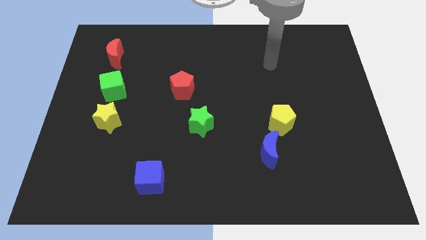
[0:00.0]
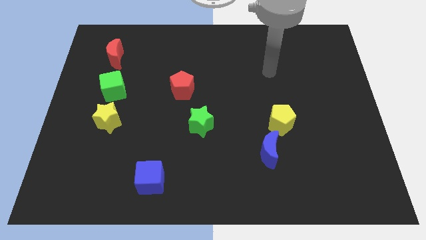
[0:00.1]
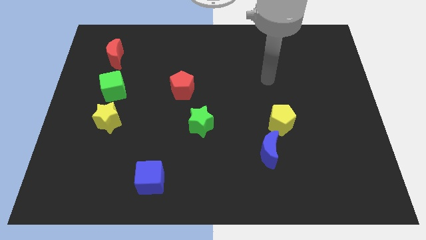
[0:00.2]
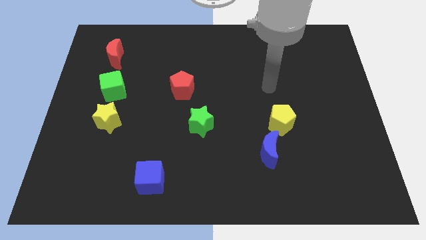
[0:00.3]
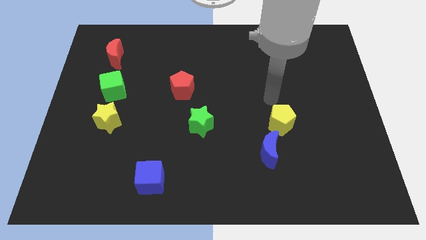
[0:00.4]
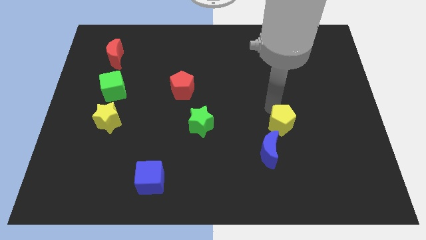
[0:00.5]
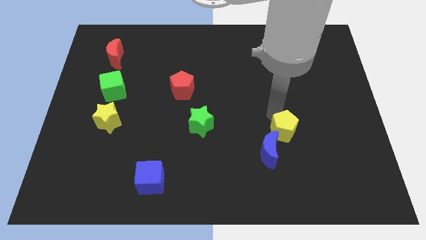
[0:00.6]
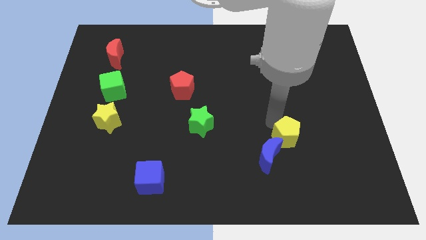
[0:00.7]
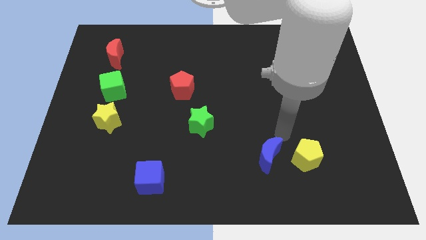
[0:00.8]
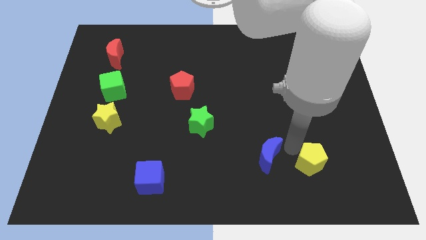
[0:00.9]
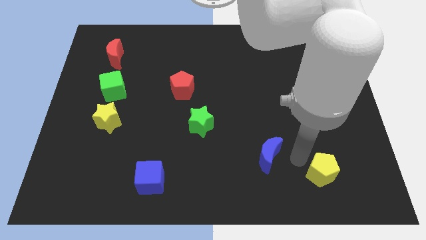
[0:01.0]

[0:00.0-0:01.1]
pull the blue moon apart from the yellow pentagon

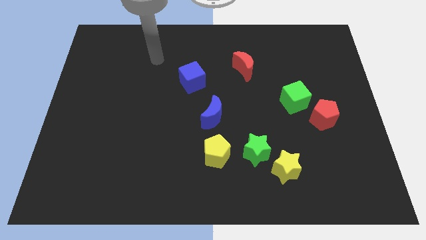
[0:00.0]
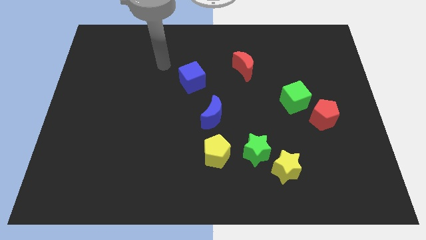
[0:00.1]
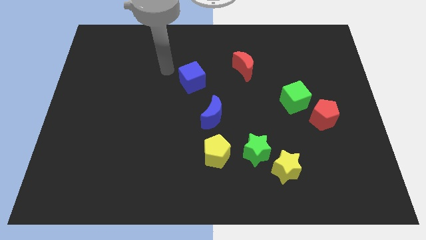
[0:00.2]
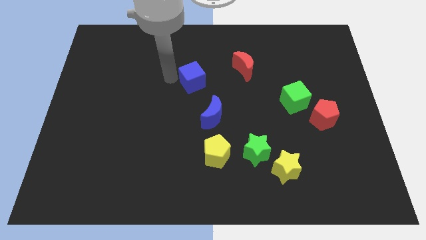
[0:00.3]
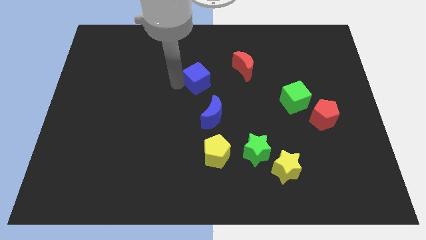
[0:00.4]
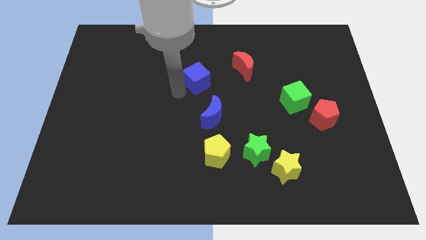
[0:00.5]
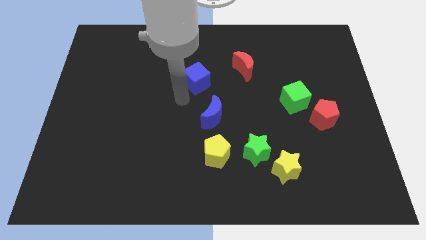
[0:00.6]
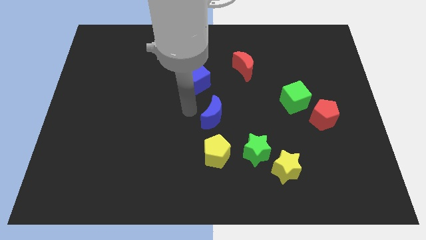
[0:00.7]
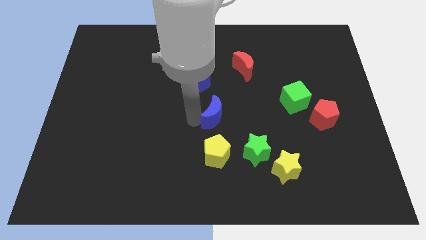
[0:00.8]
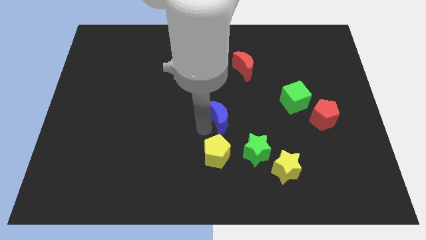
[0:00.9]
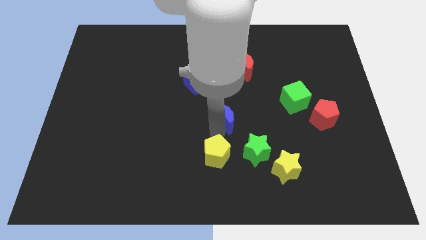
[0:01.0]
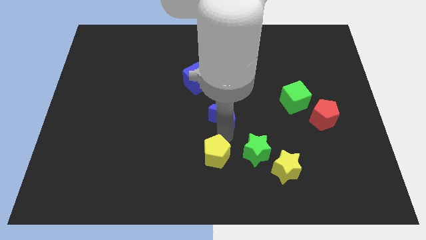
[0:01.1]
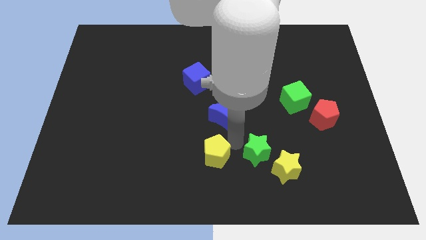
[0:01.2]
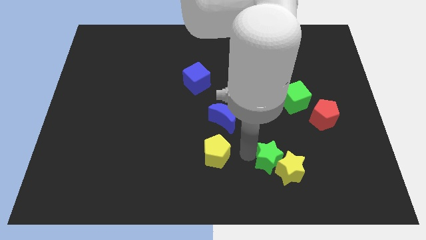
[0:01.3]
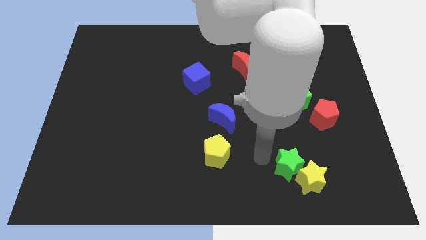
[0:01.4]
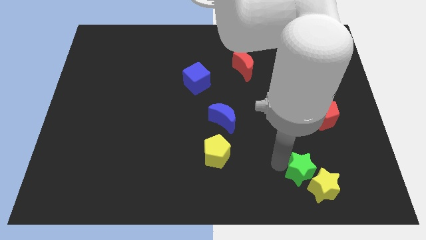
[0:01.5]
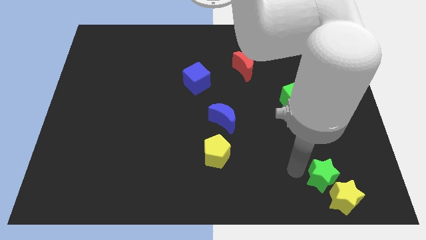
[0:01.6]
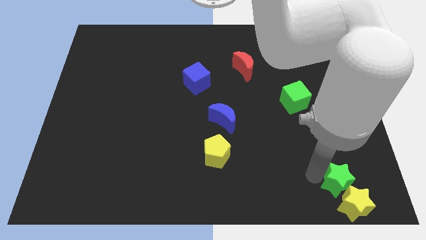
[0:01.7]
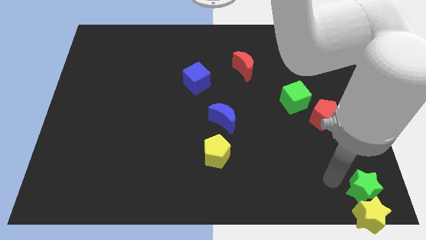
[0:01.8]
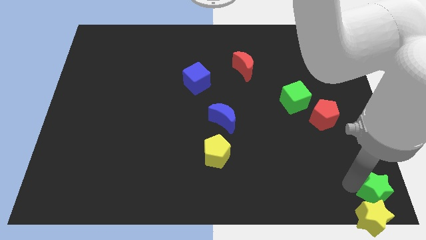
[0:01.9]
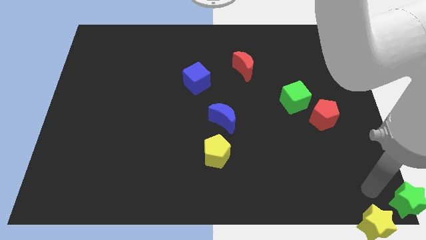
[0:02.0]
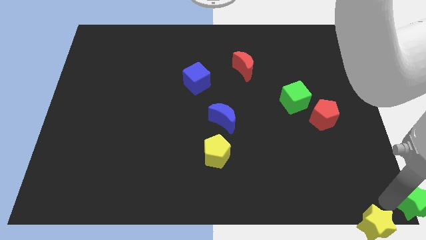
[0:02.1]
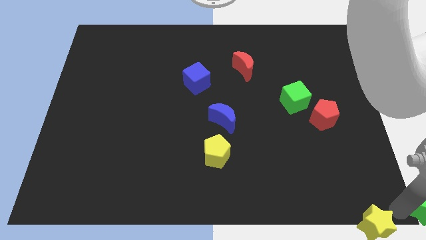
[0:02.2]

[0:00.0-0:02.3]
separate the yellow star from the green star

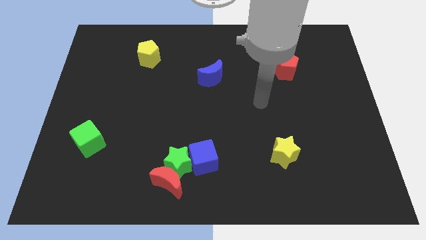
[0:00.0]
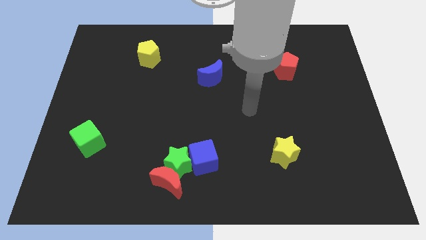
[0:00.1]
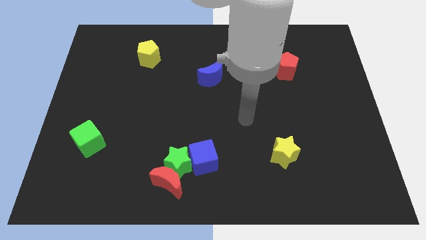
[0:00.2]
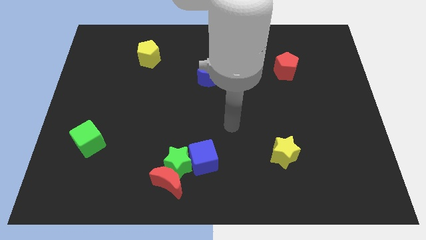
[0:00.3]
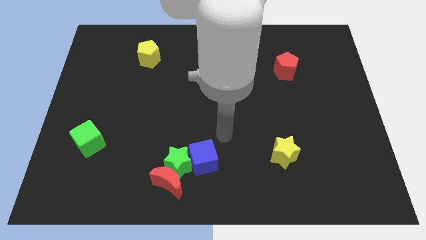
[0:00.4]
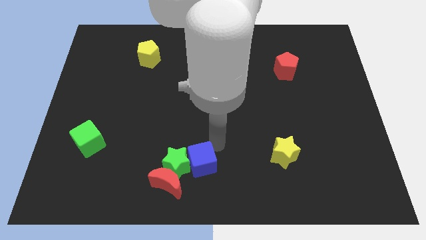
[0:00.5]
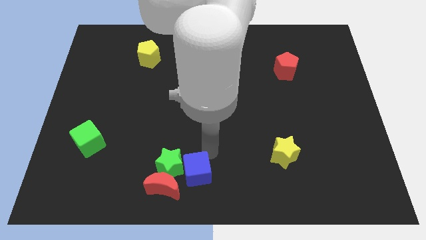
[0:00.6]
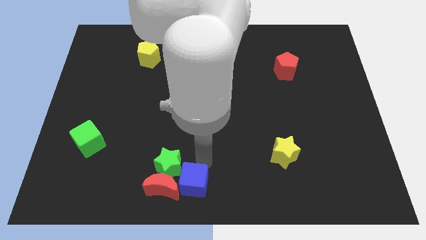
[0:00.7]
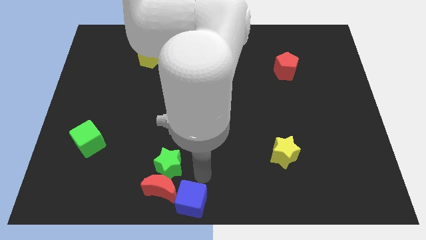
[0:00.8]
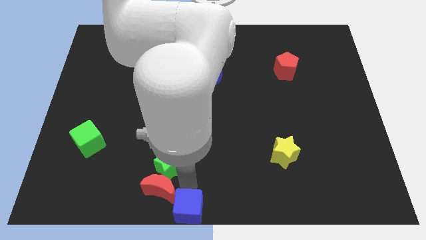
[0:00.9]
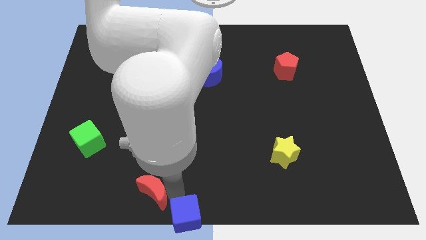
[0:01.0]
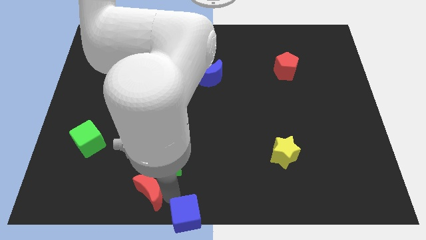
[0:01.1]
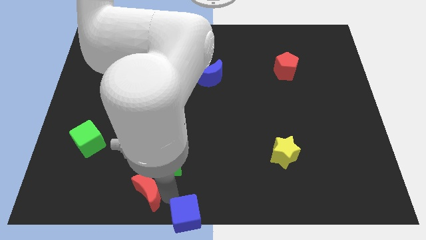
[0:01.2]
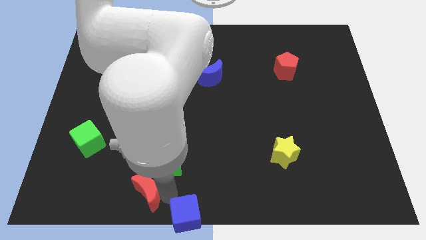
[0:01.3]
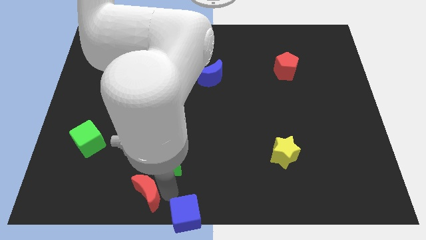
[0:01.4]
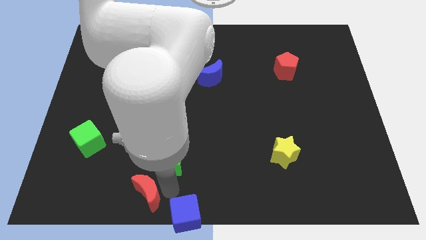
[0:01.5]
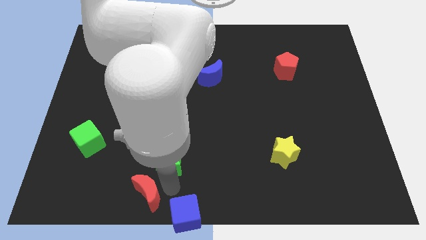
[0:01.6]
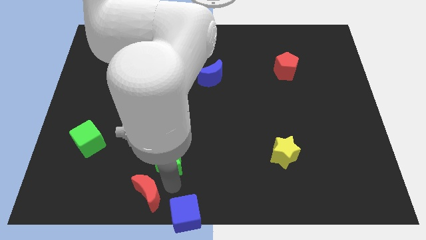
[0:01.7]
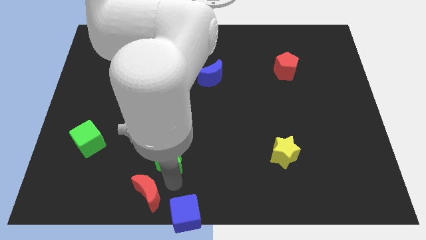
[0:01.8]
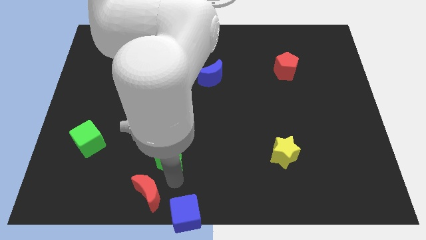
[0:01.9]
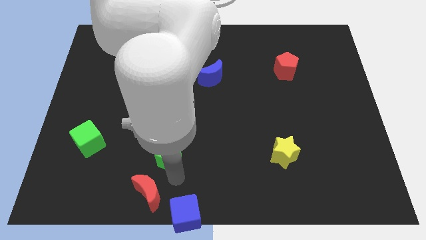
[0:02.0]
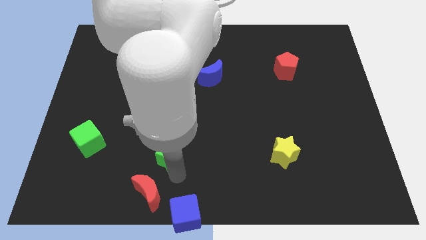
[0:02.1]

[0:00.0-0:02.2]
separate the green star from the red moon and blue cube

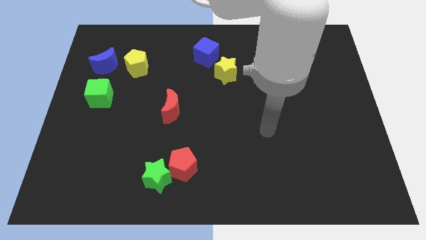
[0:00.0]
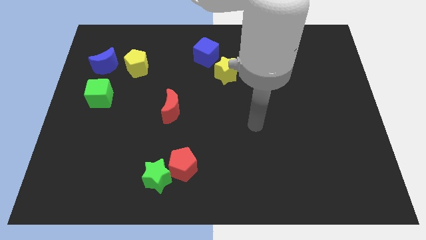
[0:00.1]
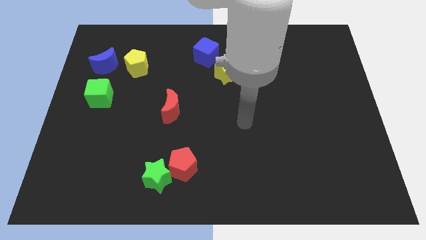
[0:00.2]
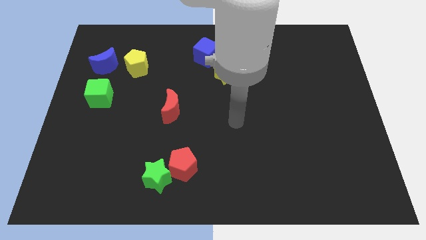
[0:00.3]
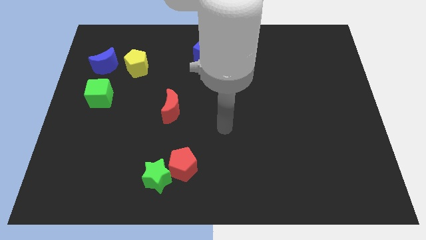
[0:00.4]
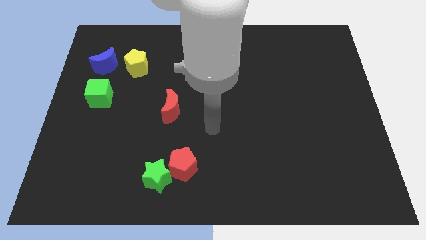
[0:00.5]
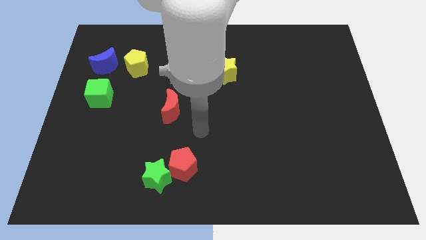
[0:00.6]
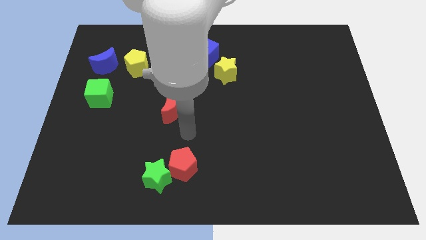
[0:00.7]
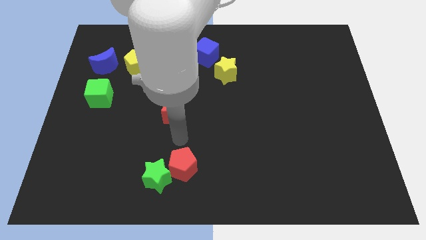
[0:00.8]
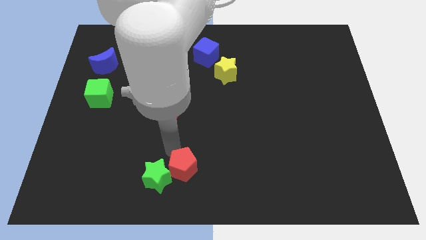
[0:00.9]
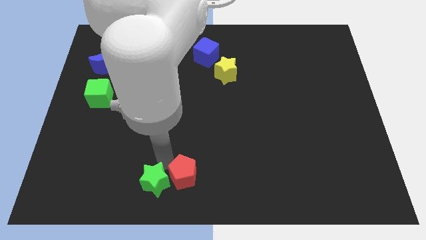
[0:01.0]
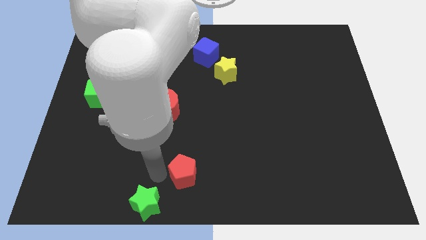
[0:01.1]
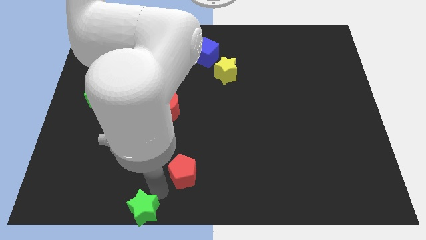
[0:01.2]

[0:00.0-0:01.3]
move the red pentagon away from the green star

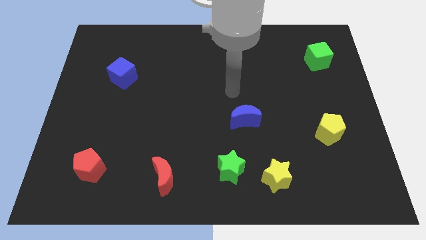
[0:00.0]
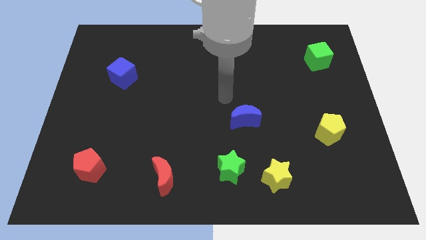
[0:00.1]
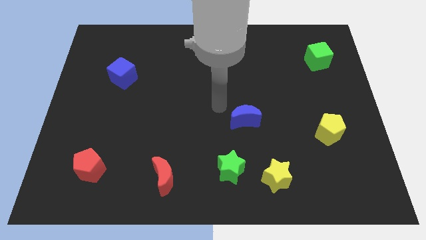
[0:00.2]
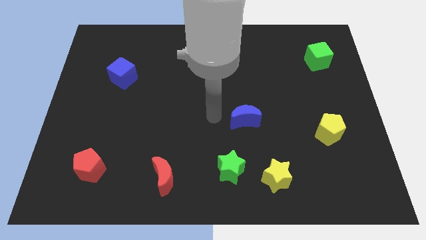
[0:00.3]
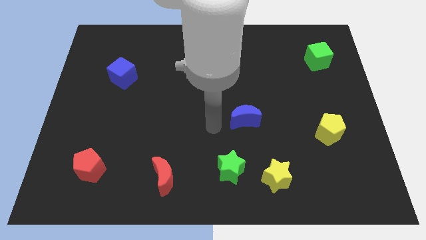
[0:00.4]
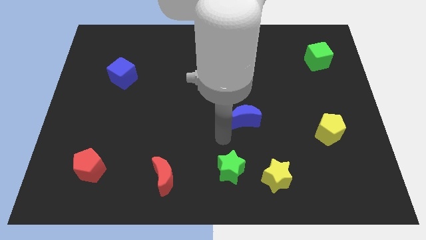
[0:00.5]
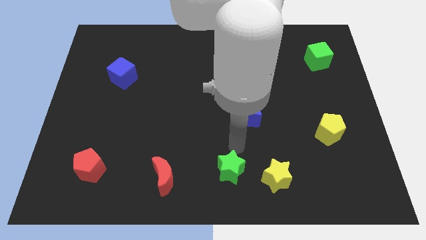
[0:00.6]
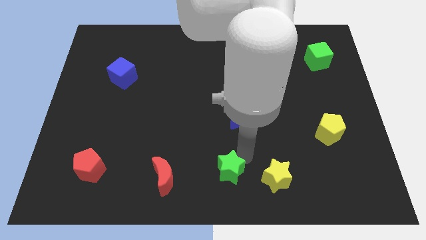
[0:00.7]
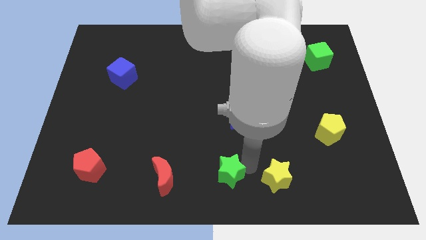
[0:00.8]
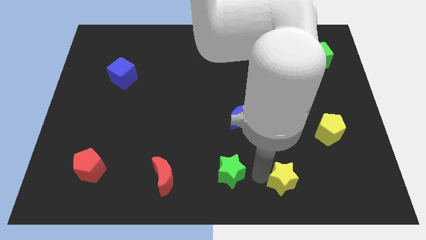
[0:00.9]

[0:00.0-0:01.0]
separate the green star from the yellow star

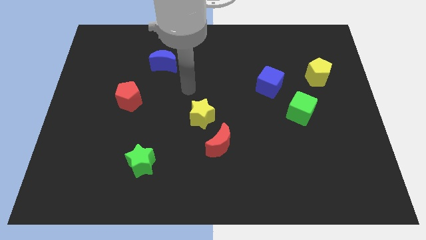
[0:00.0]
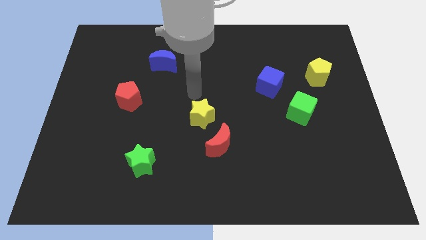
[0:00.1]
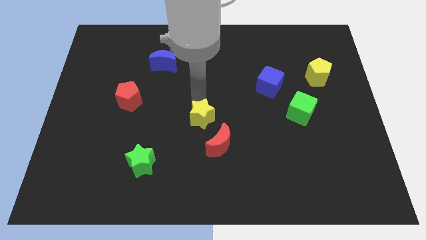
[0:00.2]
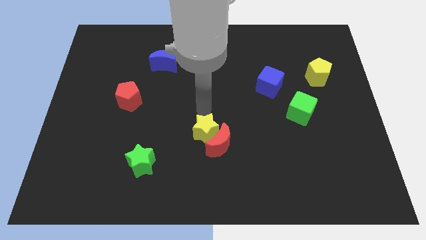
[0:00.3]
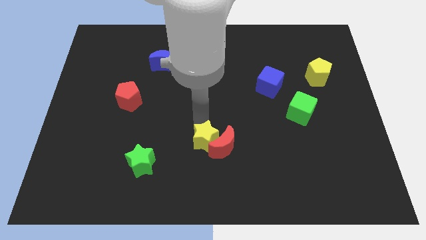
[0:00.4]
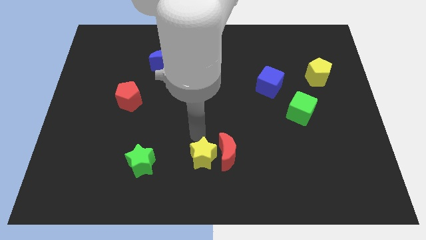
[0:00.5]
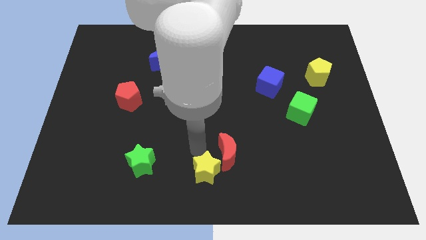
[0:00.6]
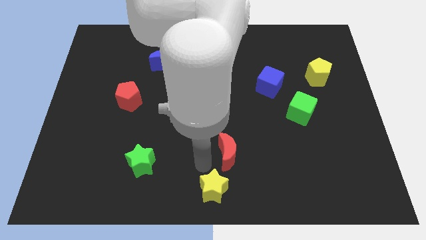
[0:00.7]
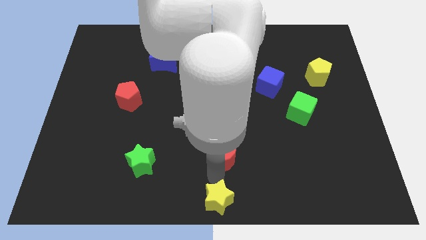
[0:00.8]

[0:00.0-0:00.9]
move the red moon away from the yellow star

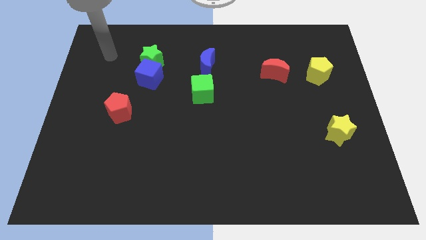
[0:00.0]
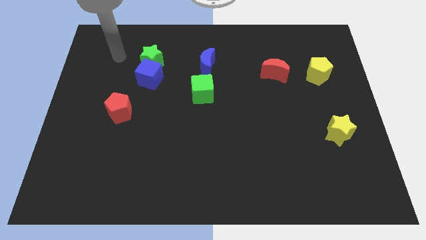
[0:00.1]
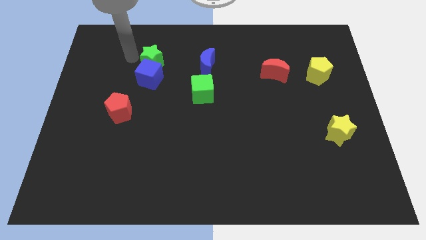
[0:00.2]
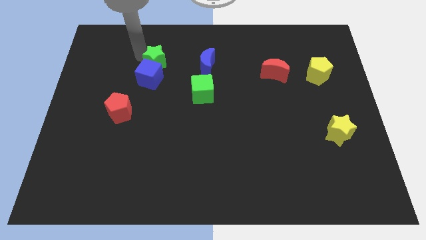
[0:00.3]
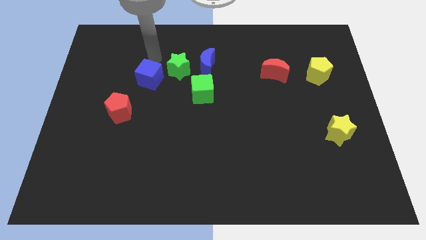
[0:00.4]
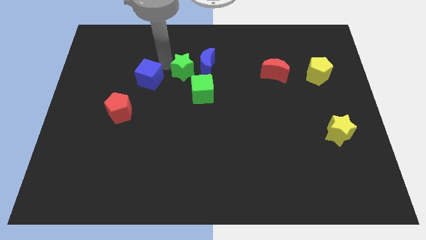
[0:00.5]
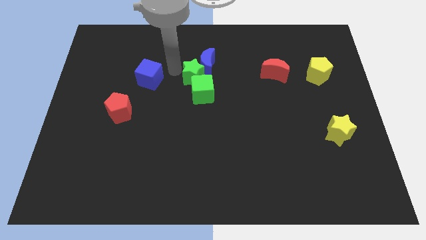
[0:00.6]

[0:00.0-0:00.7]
move the blue cube away from the green star
